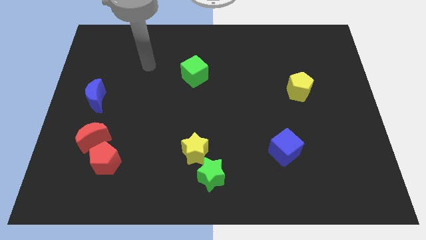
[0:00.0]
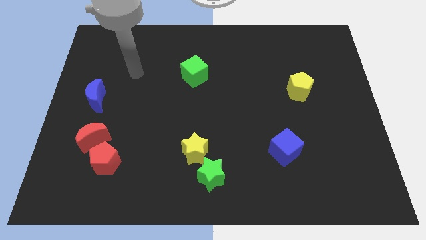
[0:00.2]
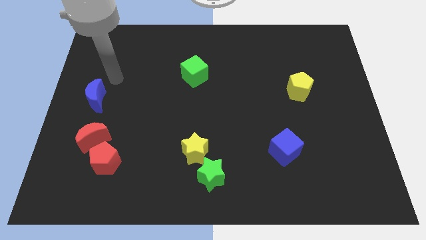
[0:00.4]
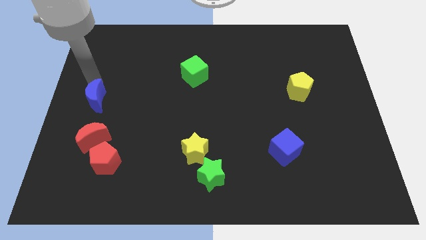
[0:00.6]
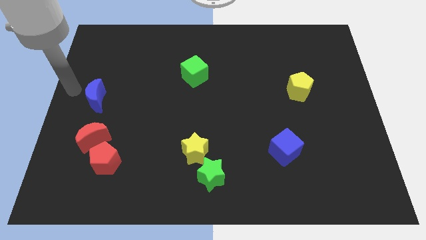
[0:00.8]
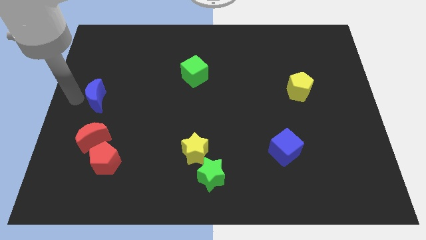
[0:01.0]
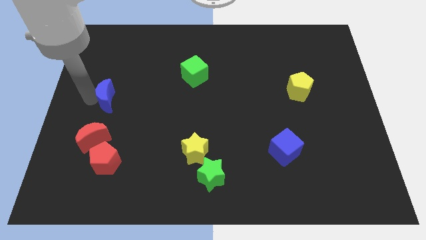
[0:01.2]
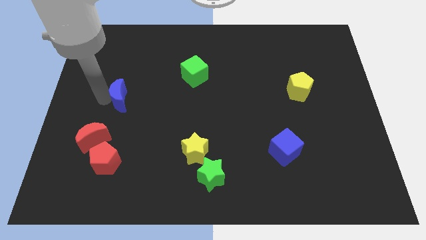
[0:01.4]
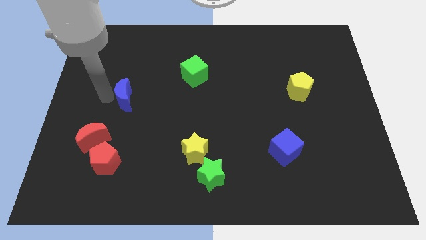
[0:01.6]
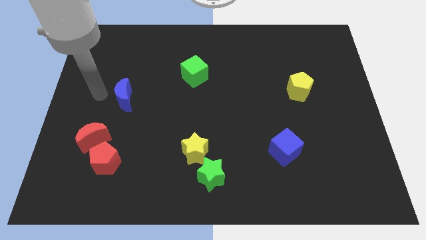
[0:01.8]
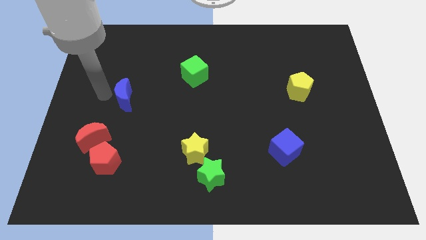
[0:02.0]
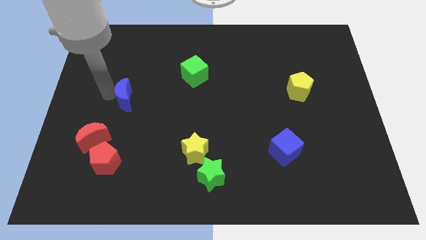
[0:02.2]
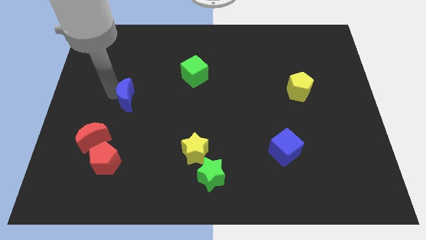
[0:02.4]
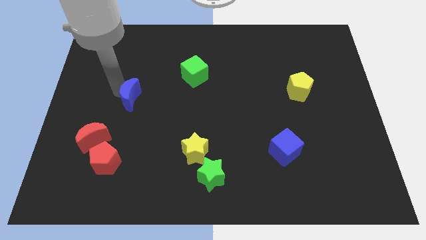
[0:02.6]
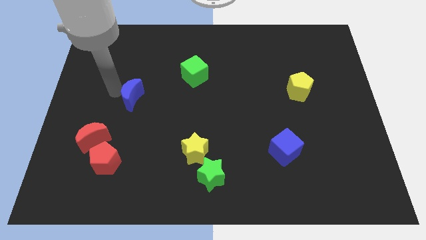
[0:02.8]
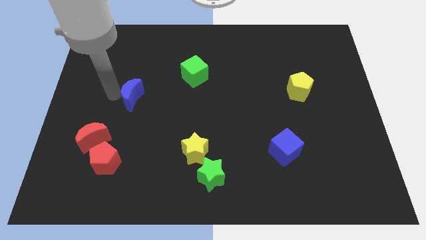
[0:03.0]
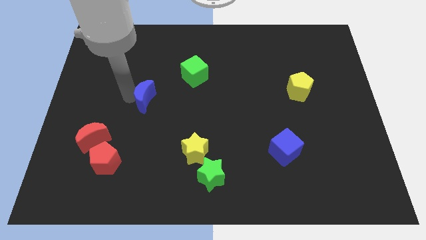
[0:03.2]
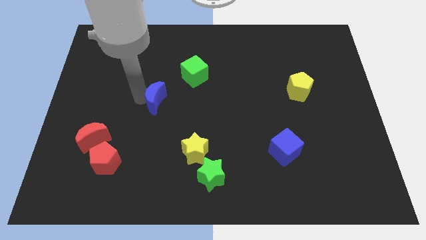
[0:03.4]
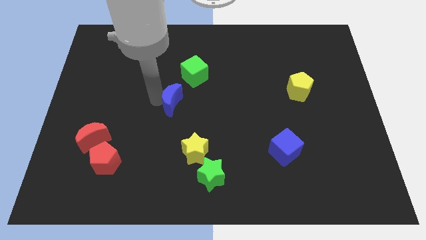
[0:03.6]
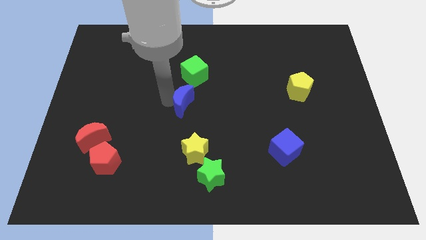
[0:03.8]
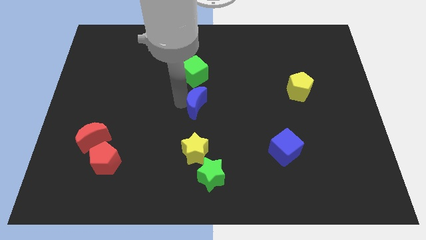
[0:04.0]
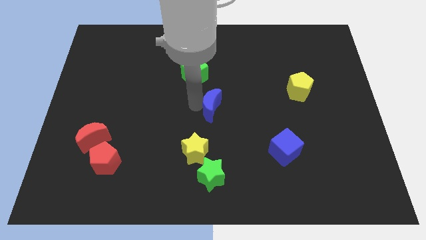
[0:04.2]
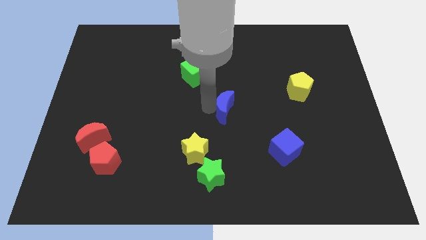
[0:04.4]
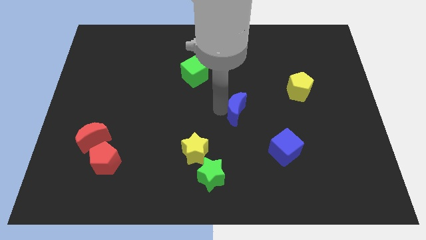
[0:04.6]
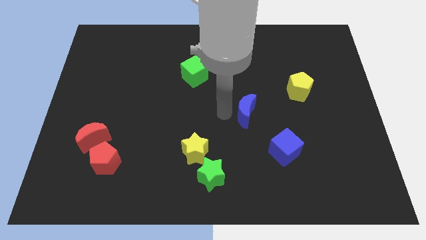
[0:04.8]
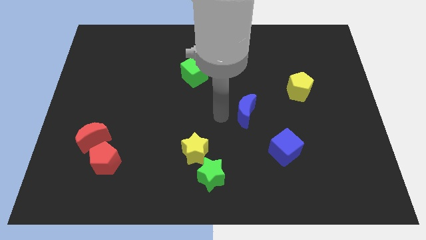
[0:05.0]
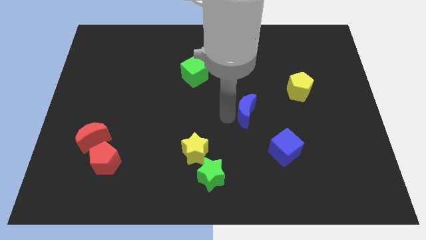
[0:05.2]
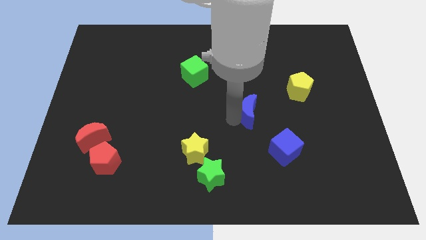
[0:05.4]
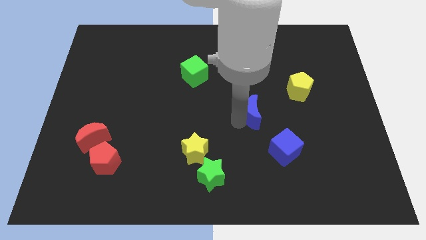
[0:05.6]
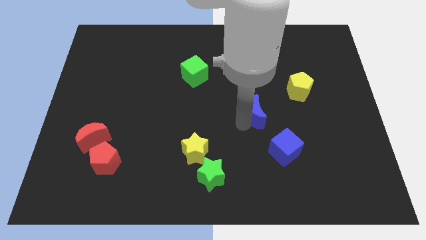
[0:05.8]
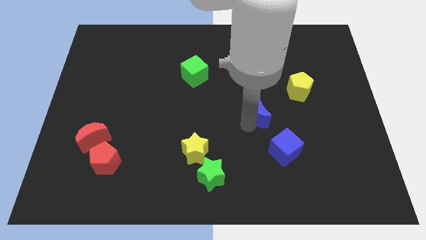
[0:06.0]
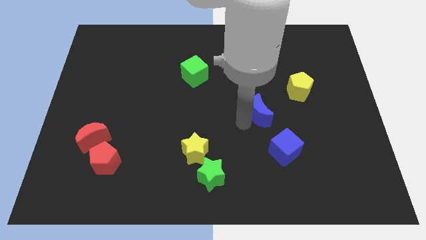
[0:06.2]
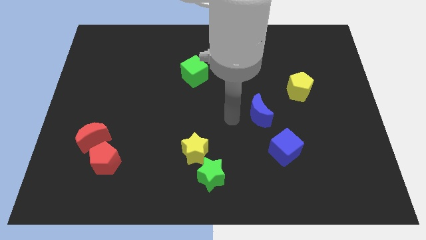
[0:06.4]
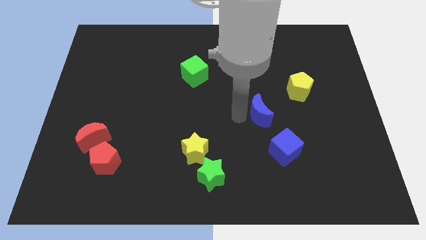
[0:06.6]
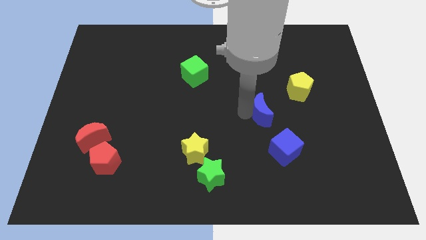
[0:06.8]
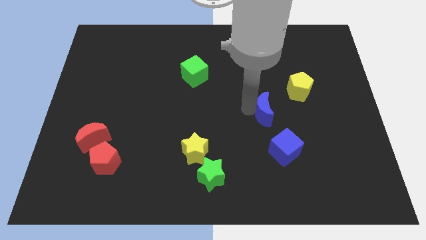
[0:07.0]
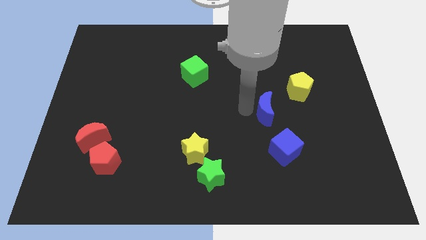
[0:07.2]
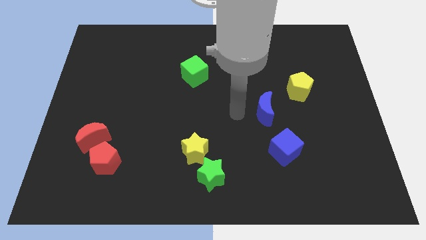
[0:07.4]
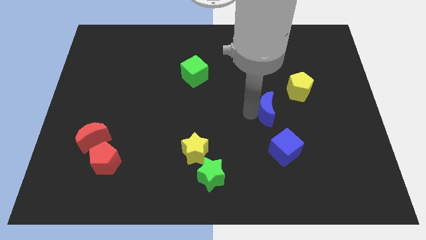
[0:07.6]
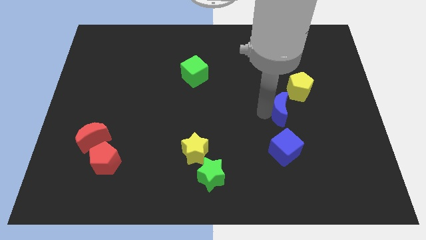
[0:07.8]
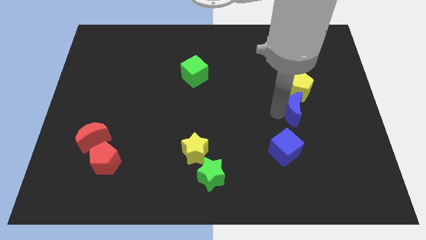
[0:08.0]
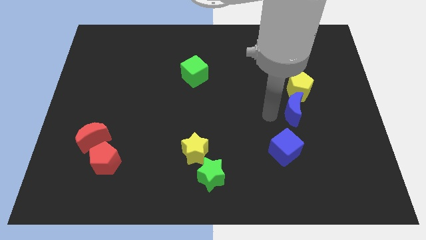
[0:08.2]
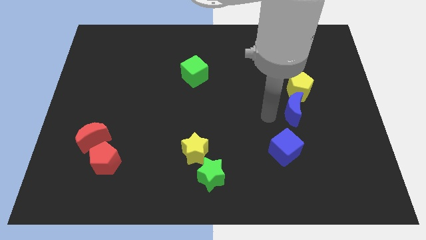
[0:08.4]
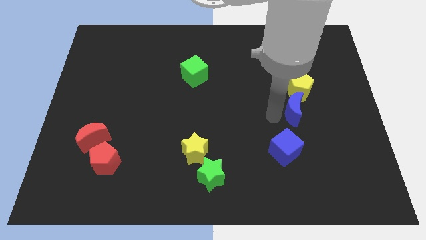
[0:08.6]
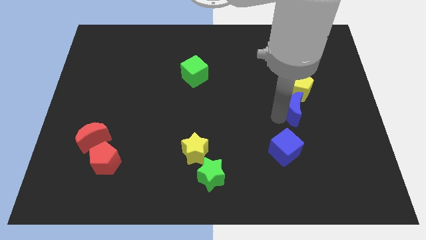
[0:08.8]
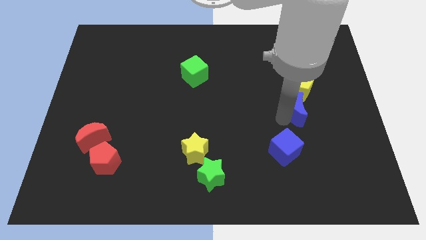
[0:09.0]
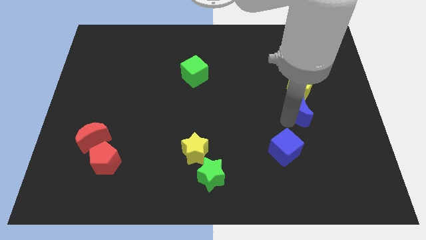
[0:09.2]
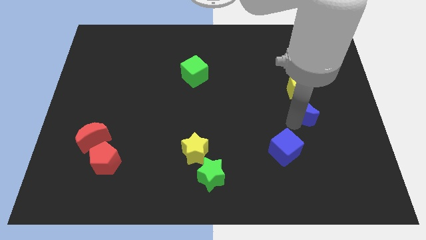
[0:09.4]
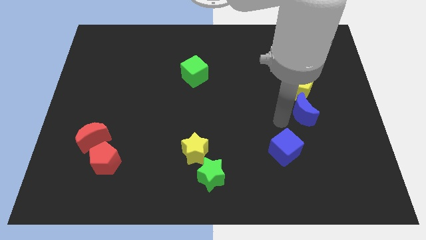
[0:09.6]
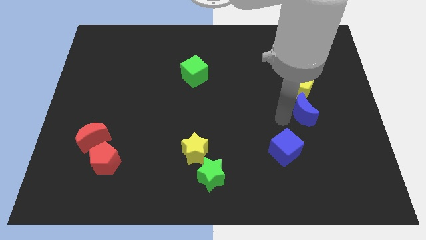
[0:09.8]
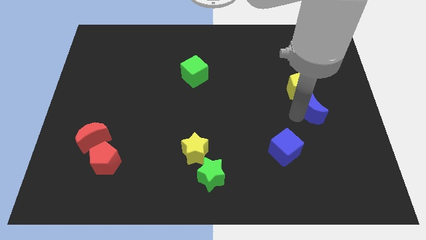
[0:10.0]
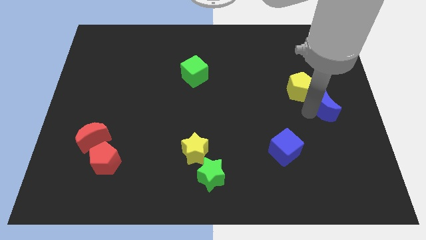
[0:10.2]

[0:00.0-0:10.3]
move the blue moon to the right side of the board

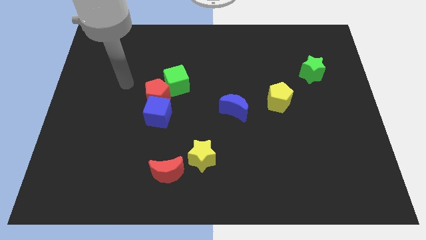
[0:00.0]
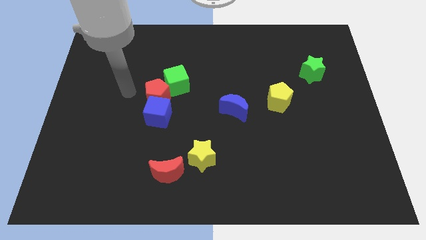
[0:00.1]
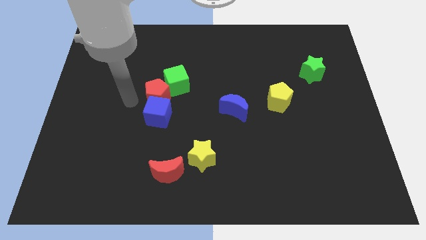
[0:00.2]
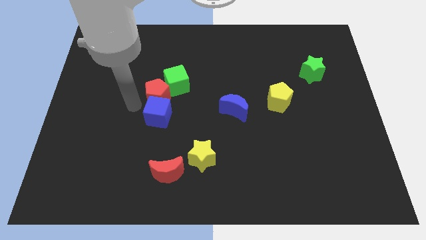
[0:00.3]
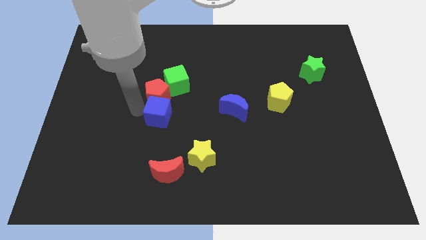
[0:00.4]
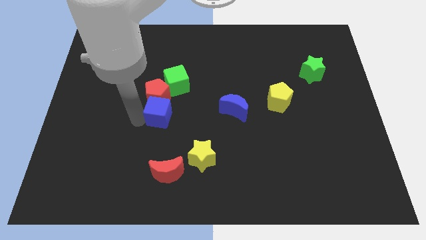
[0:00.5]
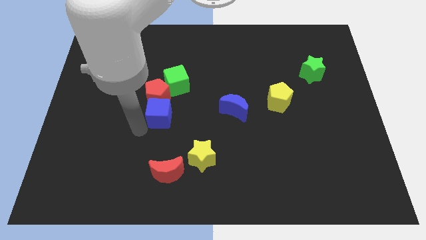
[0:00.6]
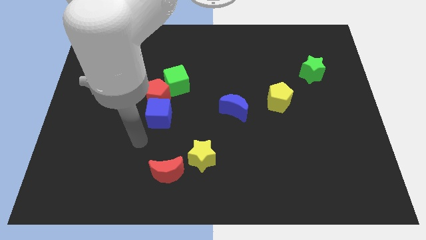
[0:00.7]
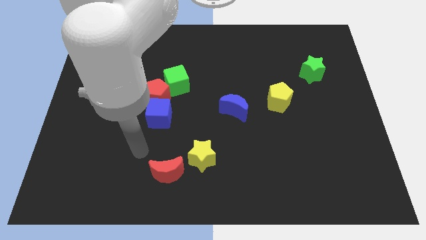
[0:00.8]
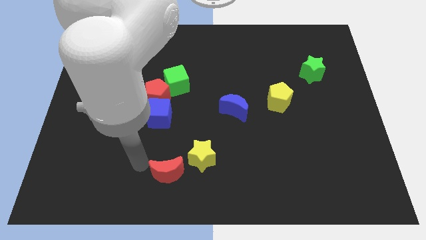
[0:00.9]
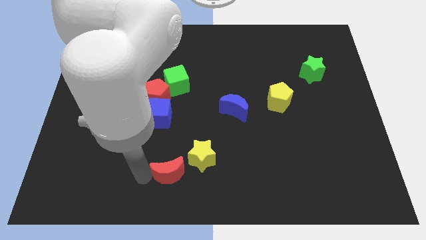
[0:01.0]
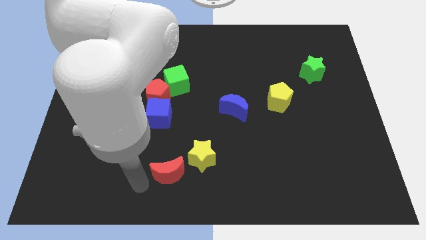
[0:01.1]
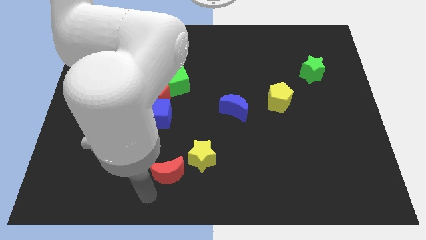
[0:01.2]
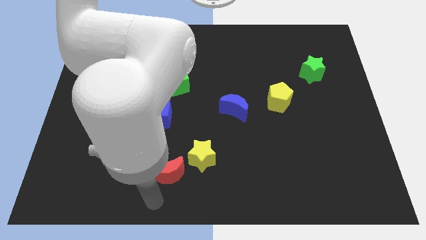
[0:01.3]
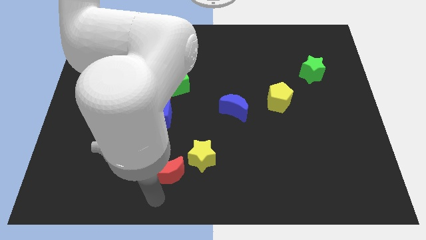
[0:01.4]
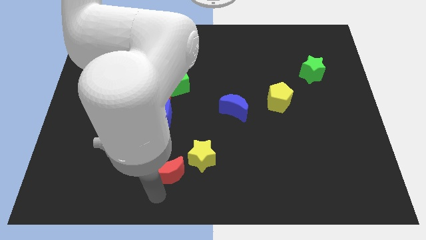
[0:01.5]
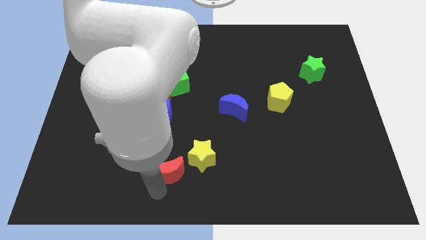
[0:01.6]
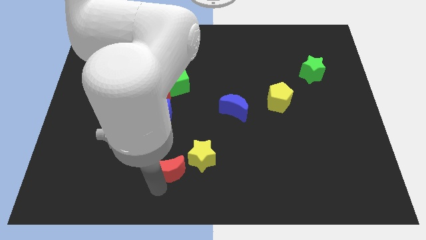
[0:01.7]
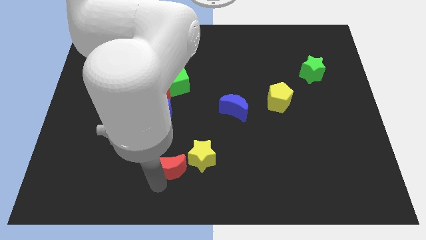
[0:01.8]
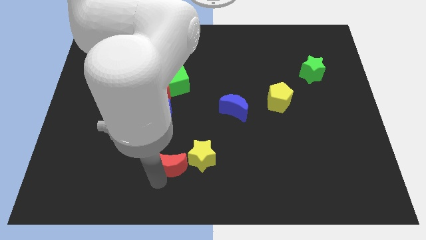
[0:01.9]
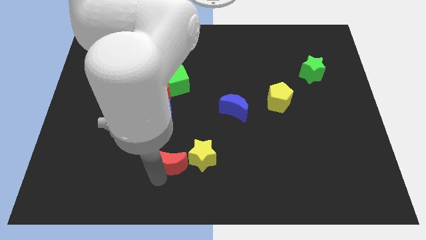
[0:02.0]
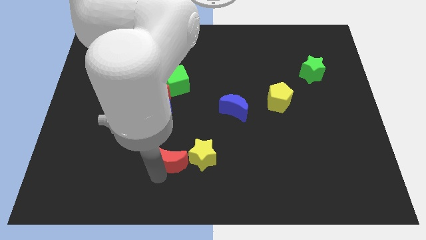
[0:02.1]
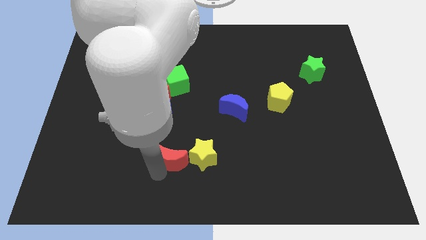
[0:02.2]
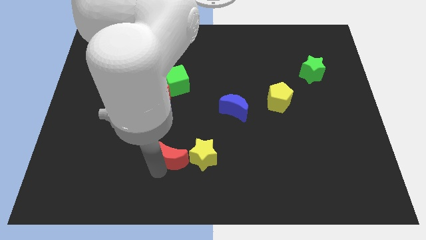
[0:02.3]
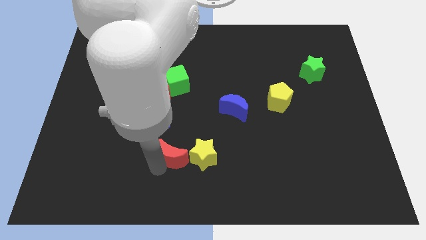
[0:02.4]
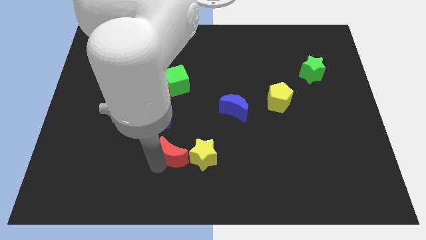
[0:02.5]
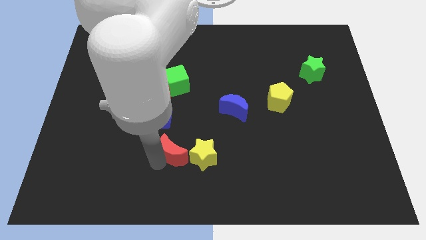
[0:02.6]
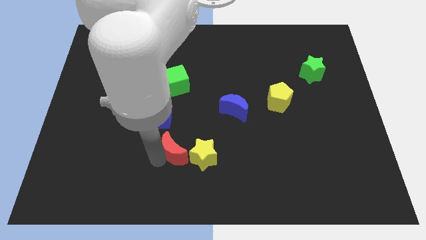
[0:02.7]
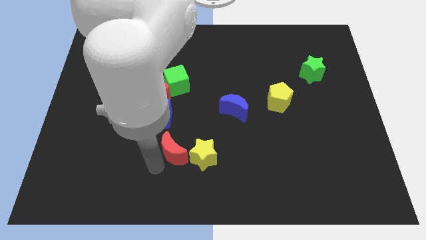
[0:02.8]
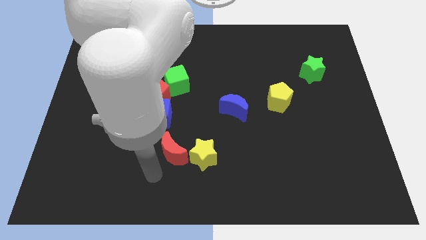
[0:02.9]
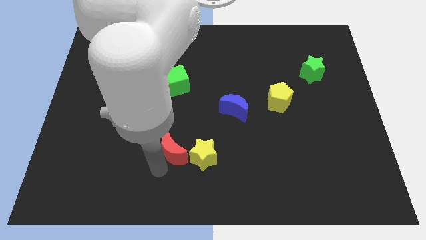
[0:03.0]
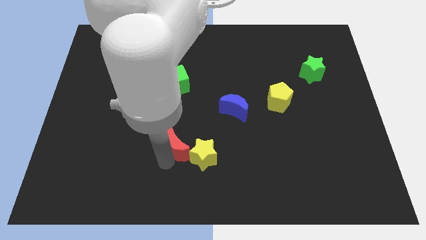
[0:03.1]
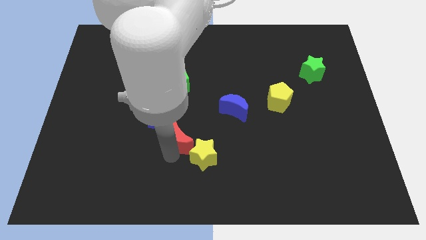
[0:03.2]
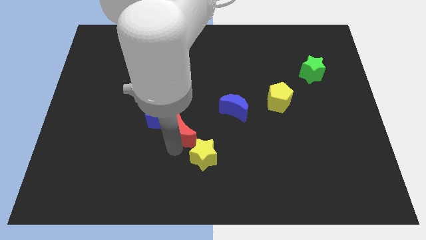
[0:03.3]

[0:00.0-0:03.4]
slide the red moon to the center of the board
